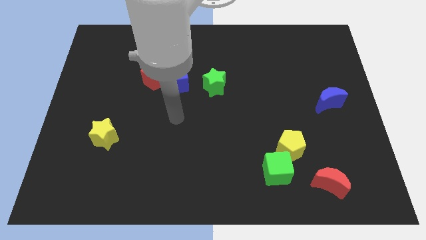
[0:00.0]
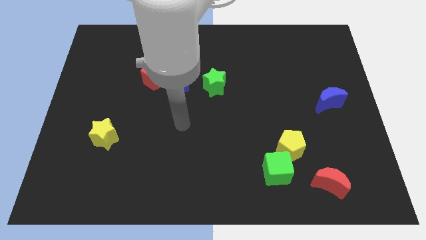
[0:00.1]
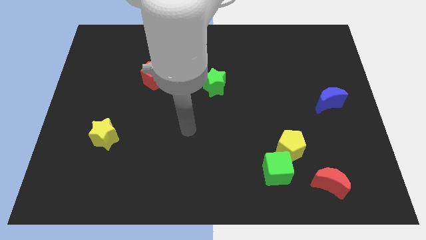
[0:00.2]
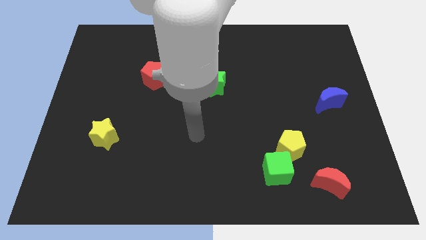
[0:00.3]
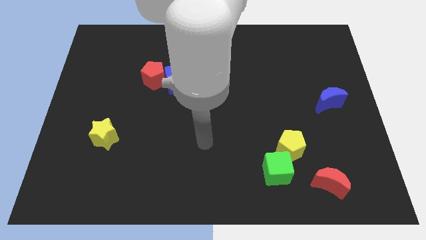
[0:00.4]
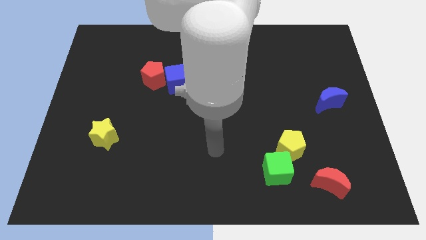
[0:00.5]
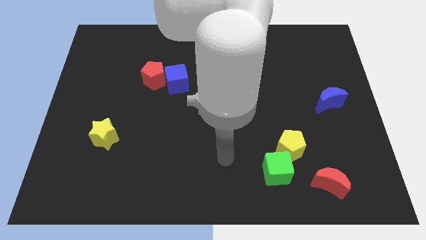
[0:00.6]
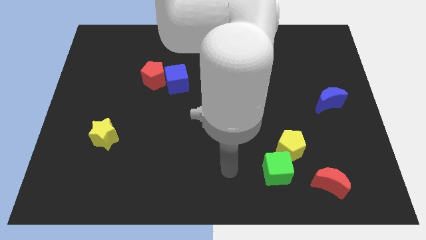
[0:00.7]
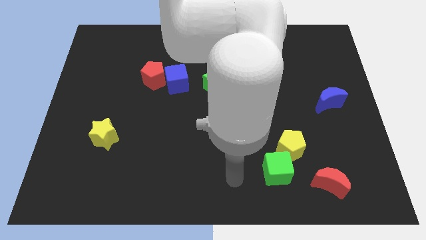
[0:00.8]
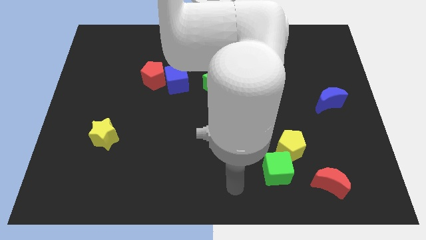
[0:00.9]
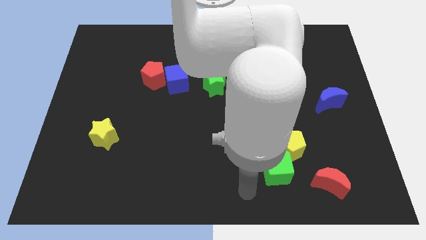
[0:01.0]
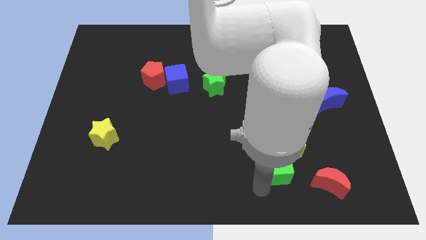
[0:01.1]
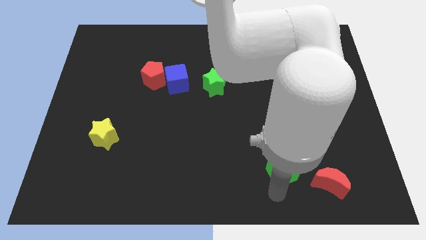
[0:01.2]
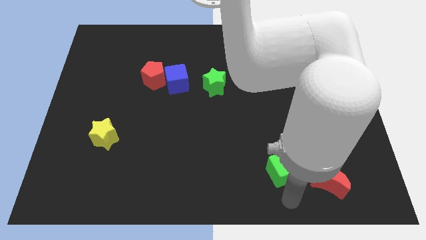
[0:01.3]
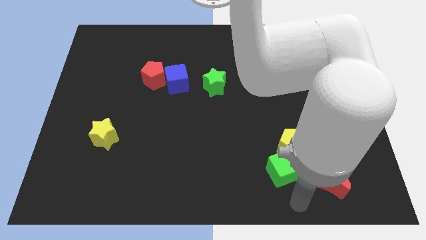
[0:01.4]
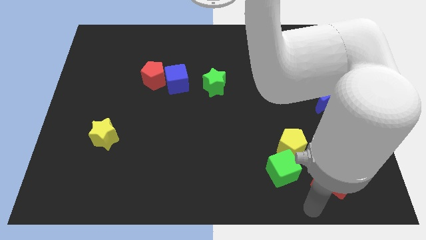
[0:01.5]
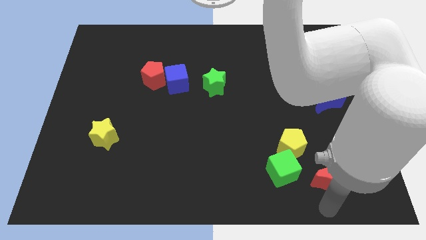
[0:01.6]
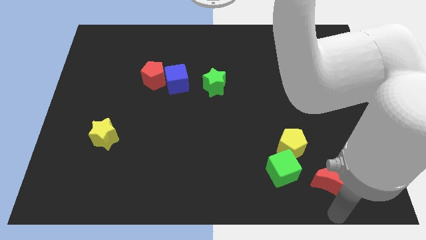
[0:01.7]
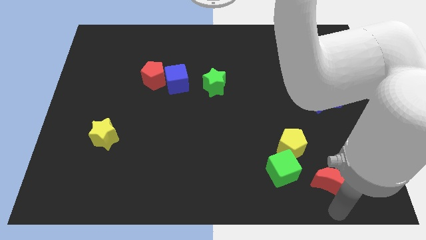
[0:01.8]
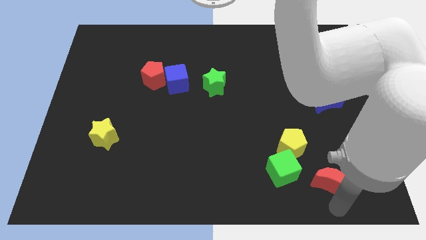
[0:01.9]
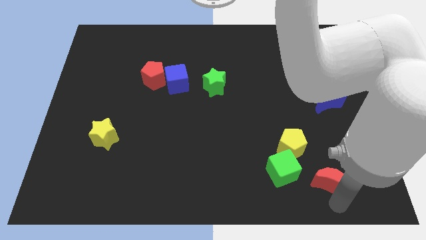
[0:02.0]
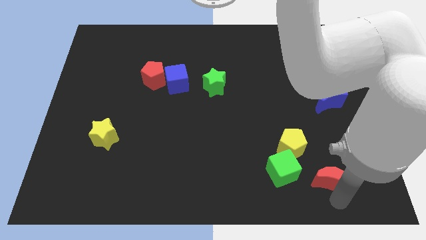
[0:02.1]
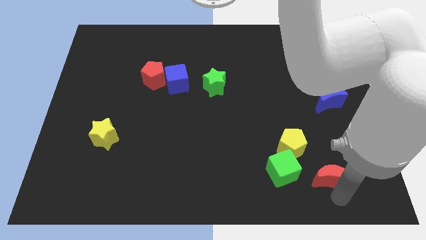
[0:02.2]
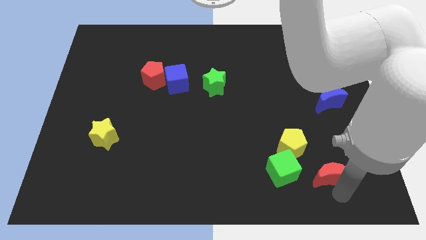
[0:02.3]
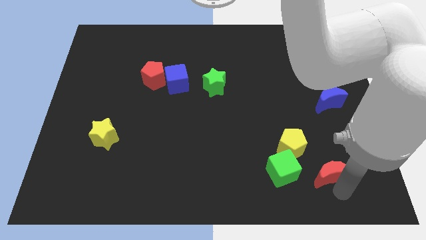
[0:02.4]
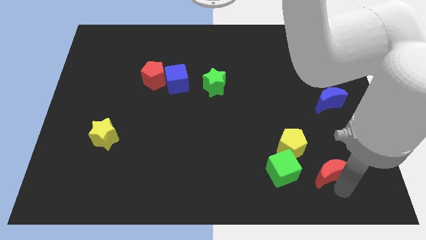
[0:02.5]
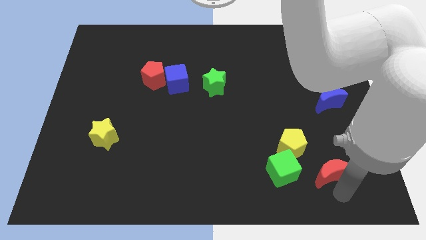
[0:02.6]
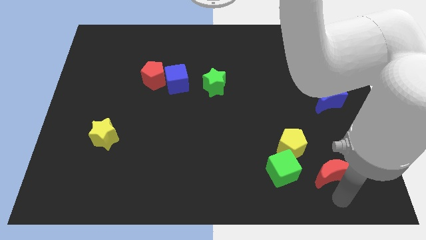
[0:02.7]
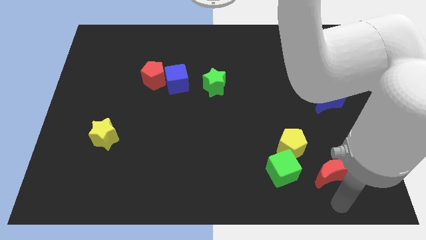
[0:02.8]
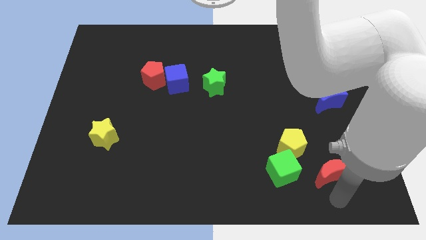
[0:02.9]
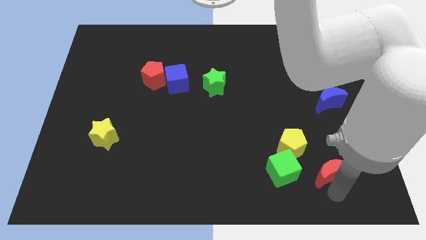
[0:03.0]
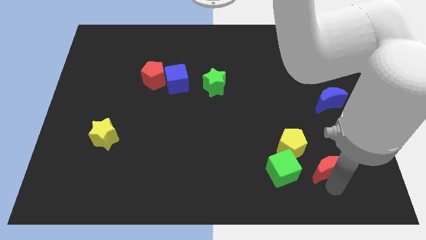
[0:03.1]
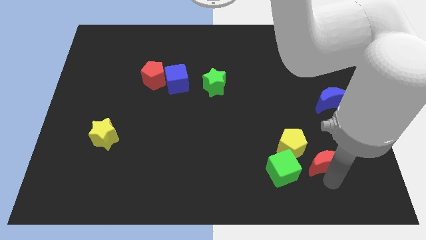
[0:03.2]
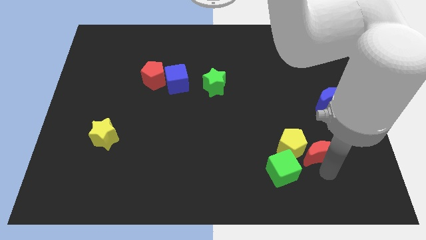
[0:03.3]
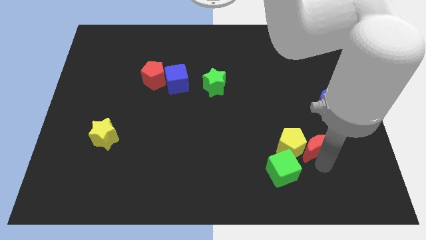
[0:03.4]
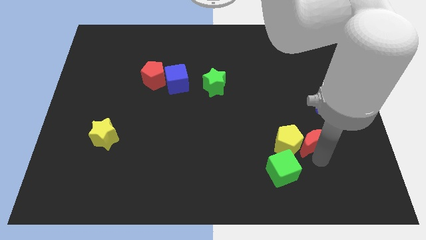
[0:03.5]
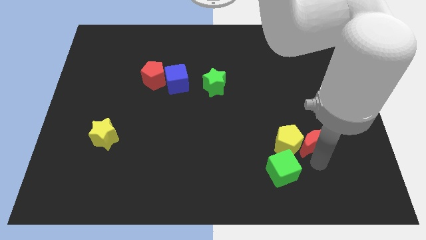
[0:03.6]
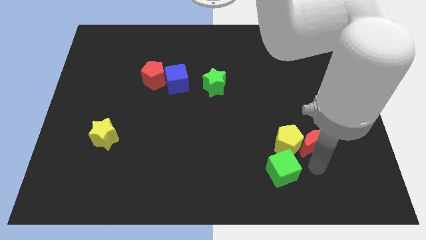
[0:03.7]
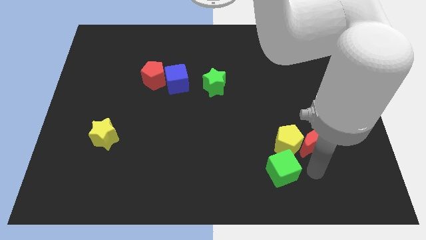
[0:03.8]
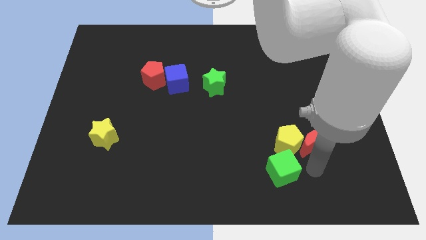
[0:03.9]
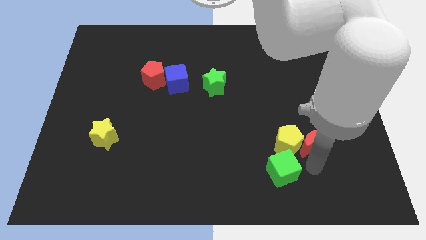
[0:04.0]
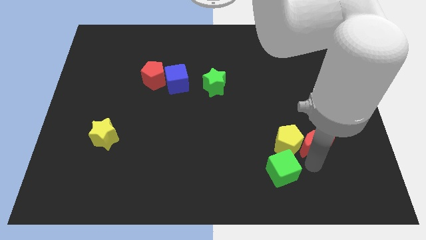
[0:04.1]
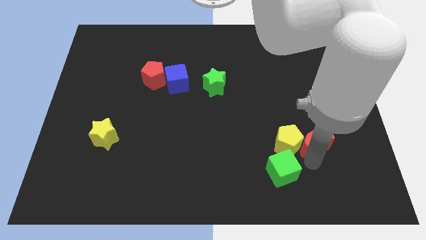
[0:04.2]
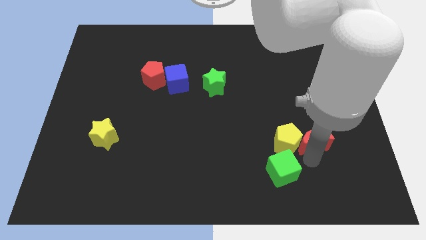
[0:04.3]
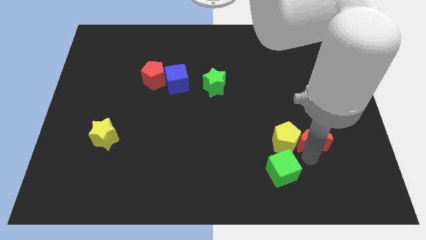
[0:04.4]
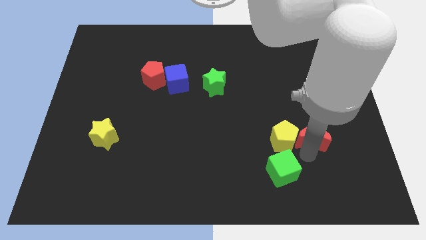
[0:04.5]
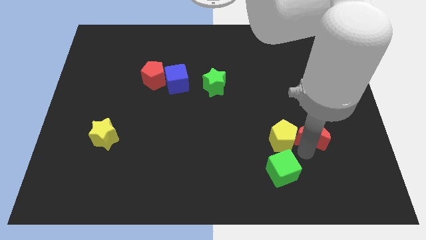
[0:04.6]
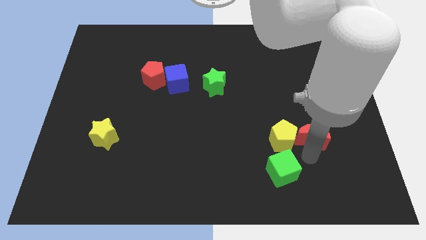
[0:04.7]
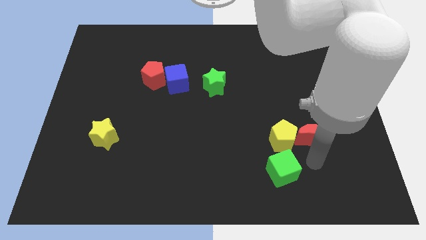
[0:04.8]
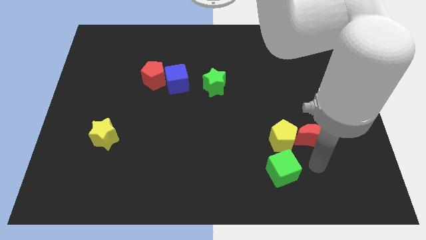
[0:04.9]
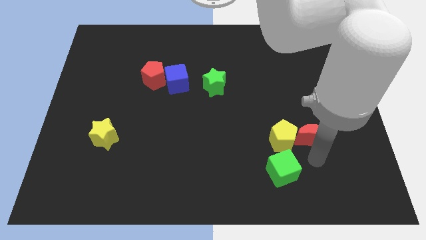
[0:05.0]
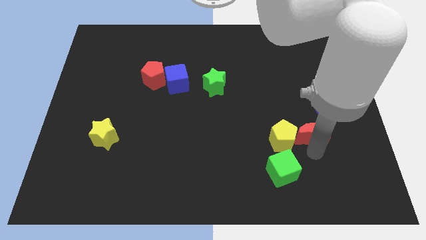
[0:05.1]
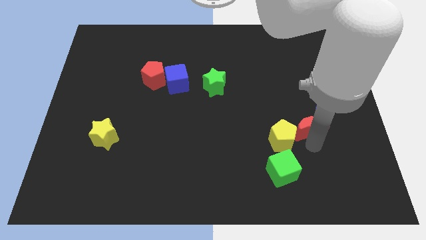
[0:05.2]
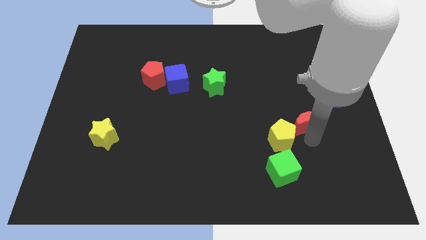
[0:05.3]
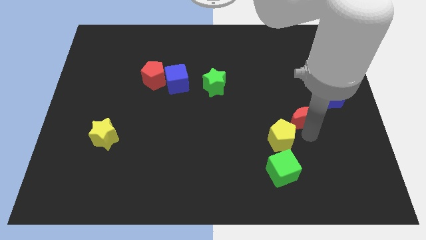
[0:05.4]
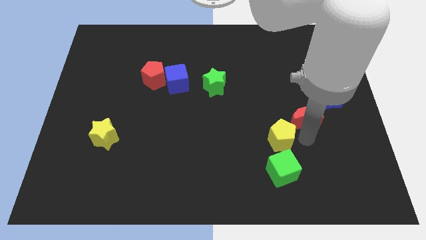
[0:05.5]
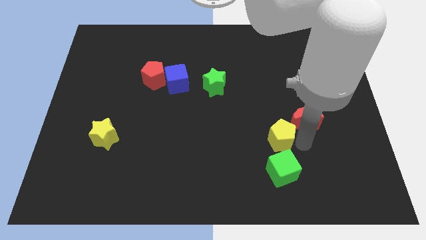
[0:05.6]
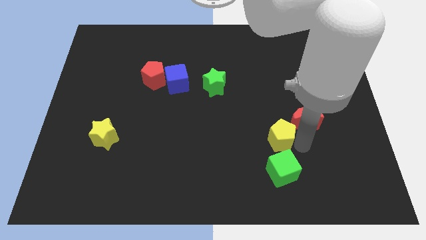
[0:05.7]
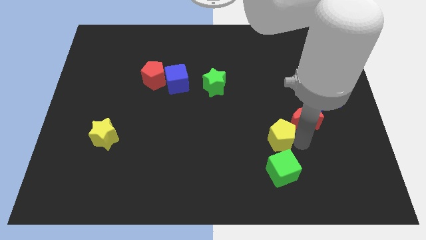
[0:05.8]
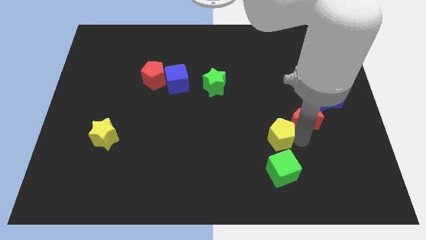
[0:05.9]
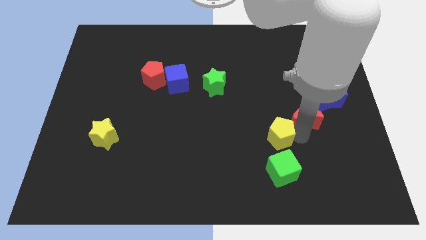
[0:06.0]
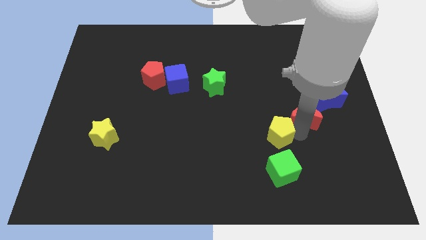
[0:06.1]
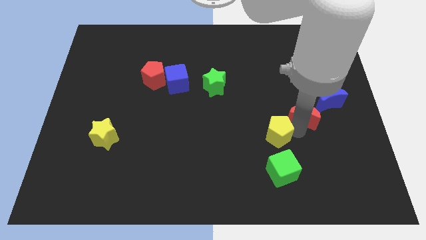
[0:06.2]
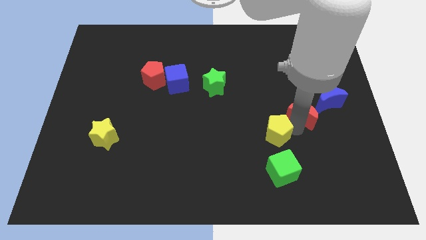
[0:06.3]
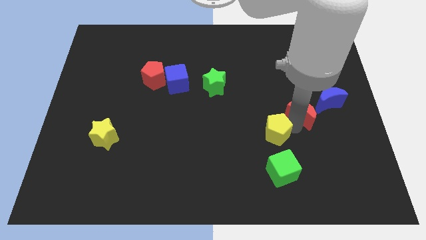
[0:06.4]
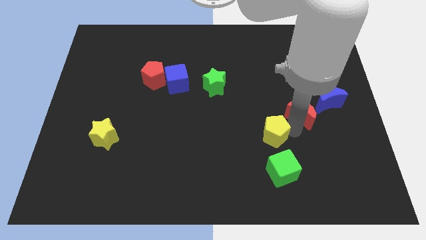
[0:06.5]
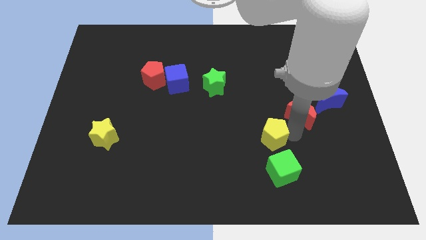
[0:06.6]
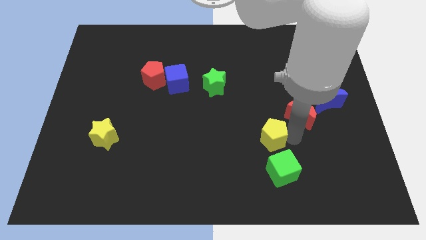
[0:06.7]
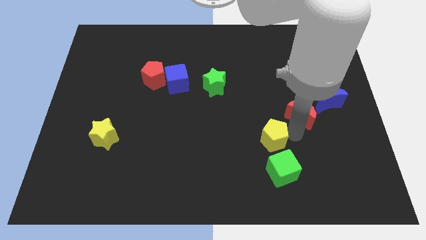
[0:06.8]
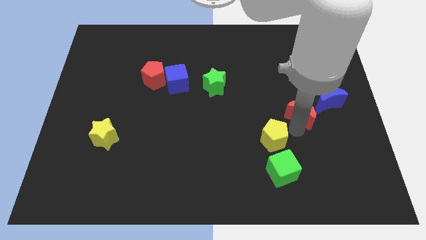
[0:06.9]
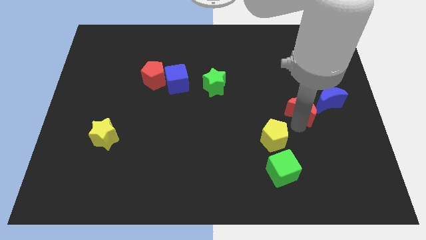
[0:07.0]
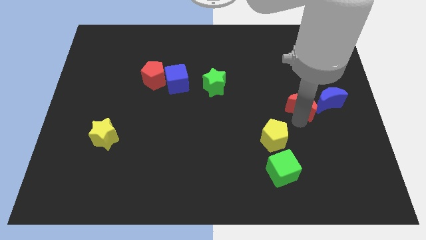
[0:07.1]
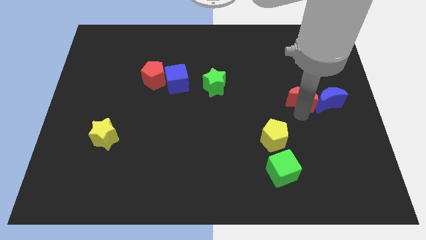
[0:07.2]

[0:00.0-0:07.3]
push the red moon upwards

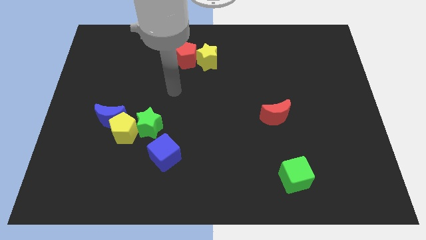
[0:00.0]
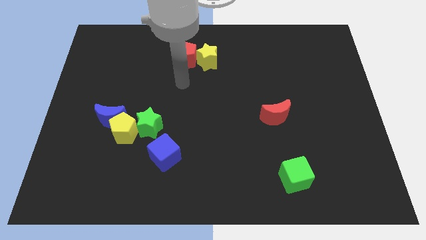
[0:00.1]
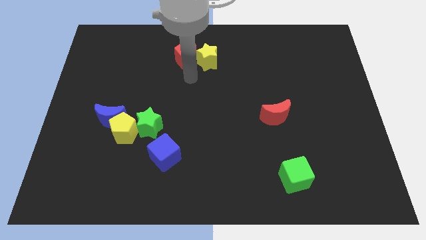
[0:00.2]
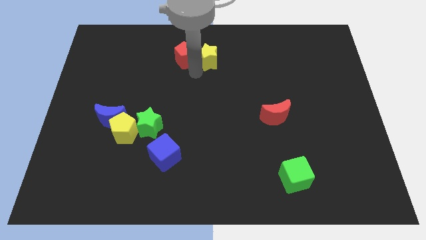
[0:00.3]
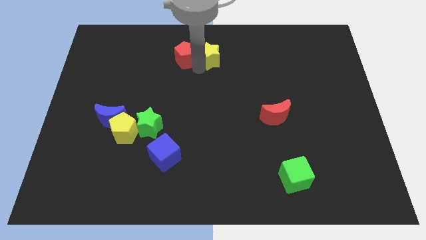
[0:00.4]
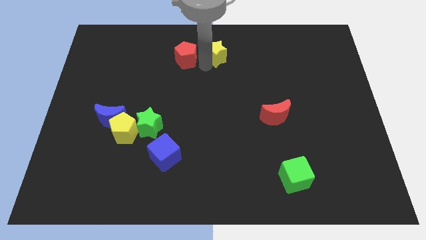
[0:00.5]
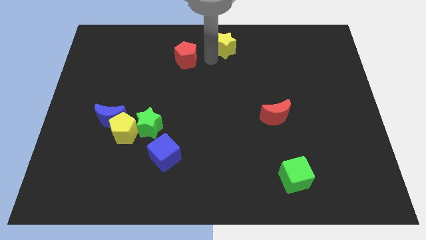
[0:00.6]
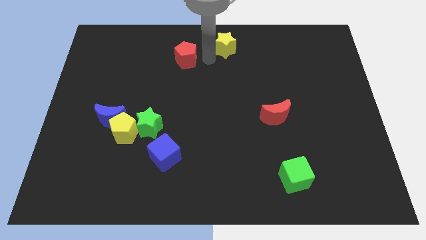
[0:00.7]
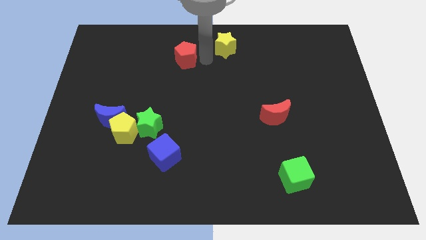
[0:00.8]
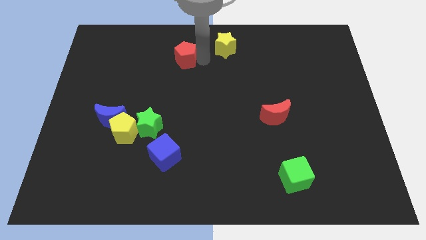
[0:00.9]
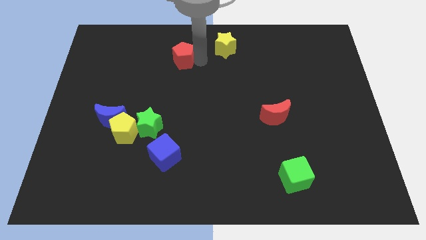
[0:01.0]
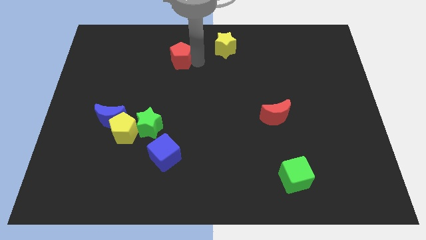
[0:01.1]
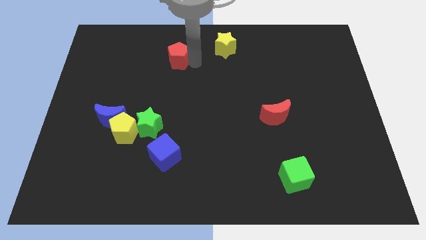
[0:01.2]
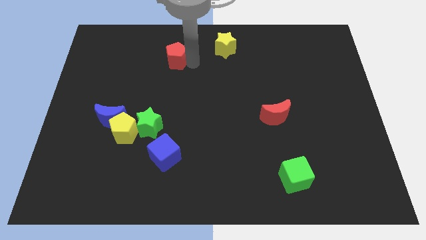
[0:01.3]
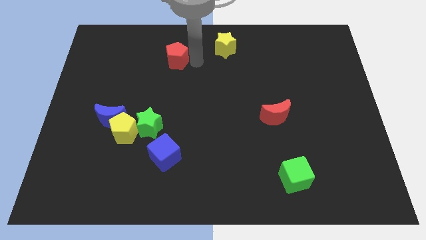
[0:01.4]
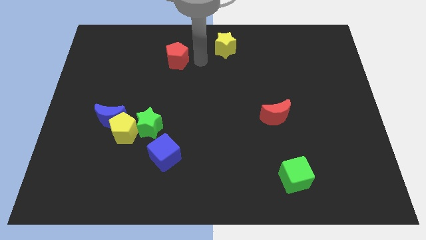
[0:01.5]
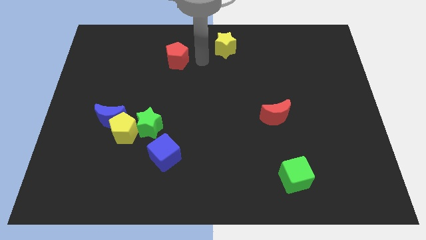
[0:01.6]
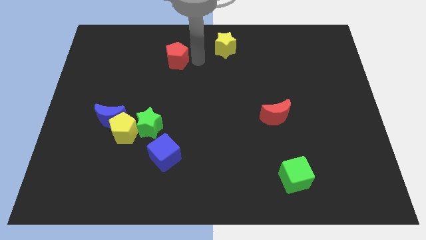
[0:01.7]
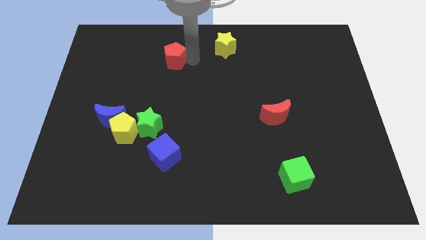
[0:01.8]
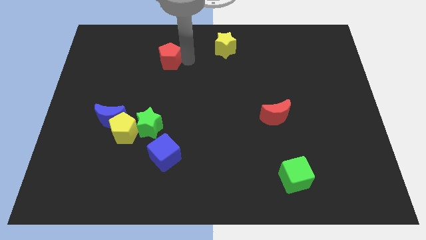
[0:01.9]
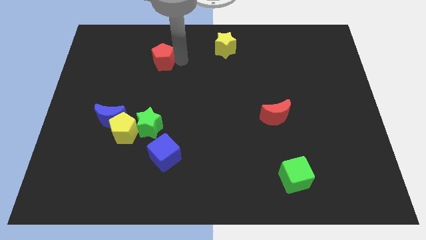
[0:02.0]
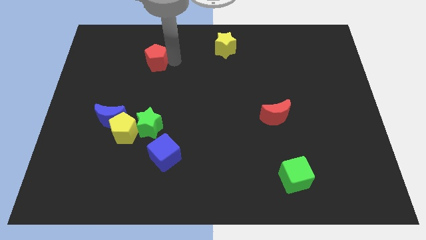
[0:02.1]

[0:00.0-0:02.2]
move the red pentagon to the left a bit
